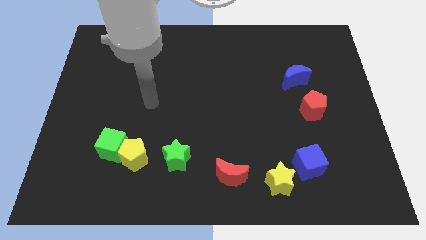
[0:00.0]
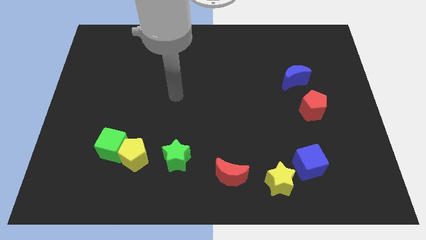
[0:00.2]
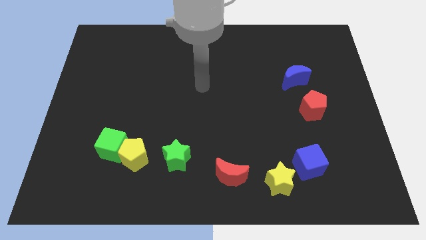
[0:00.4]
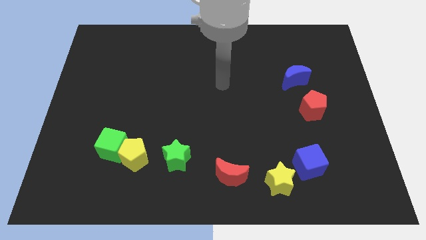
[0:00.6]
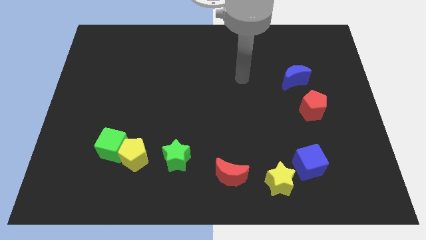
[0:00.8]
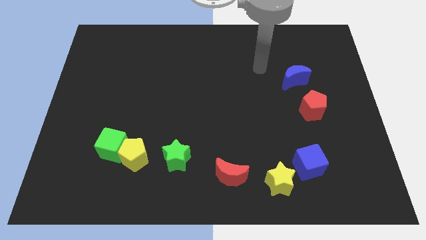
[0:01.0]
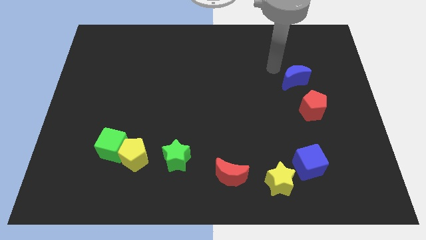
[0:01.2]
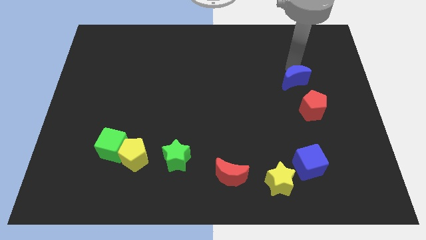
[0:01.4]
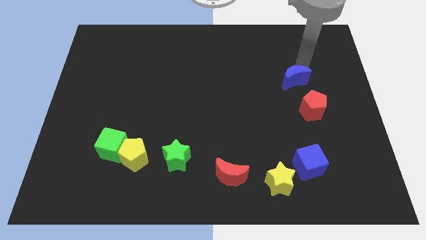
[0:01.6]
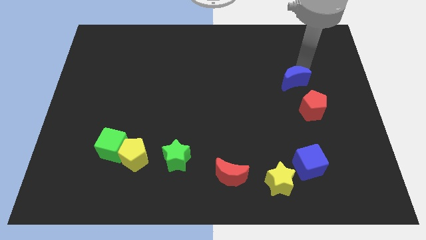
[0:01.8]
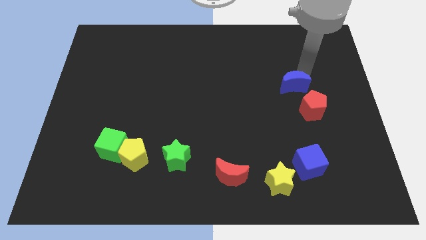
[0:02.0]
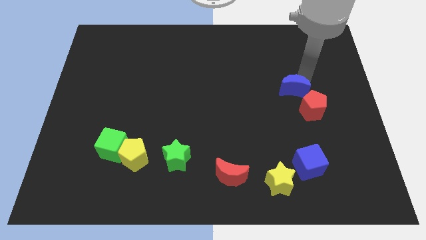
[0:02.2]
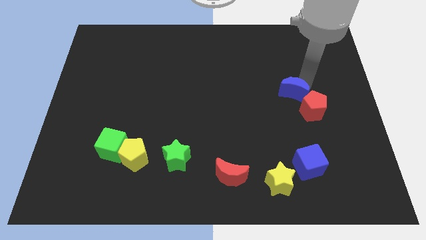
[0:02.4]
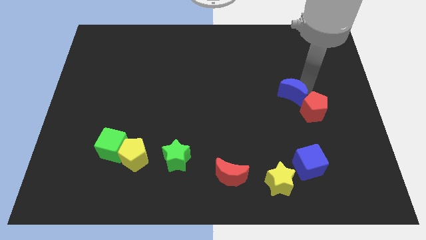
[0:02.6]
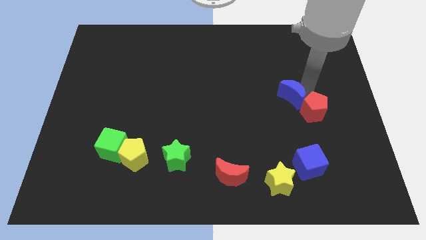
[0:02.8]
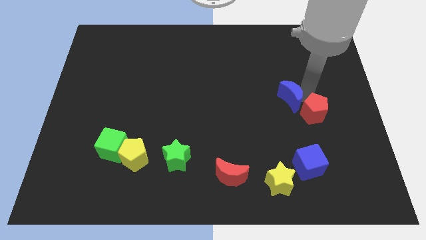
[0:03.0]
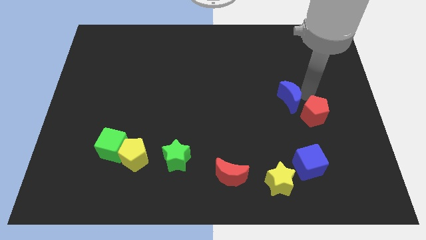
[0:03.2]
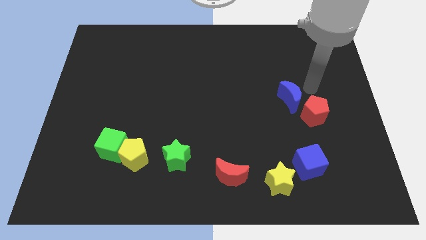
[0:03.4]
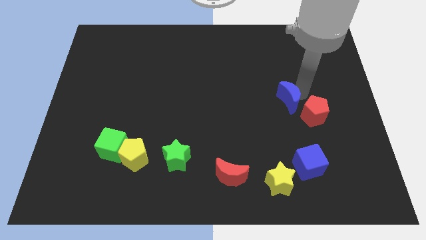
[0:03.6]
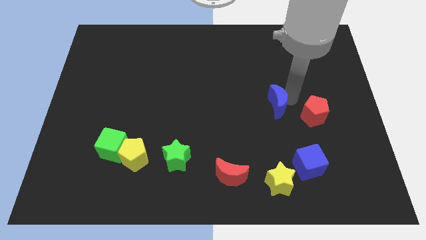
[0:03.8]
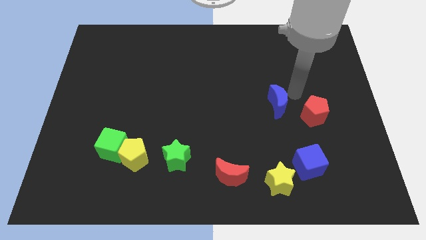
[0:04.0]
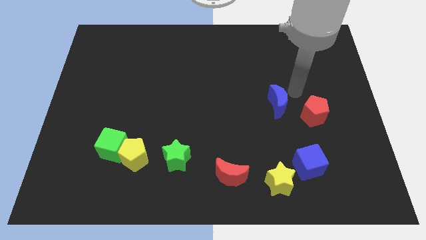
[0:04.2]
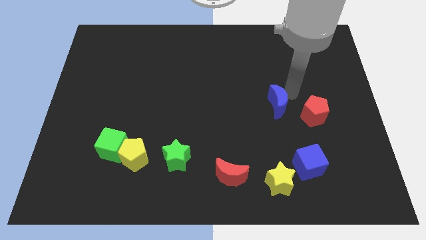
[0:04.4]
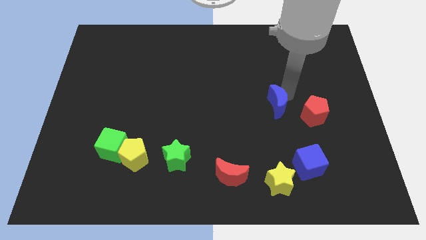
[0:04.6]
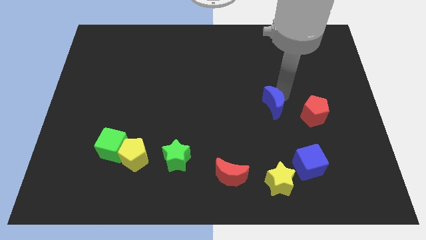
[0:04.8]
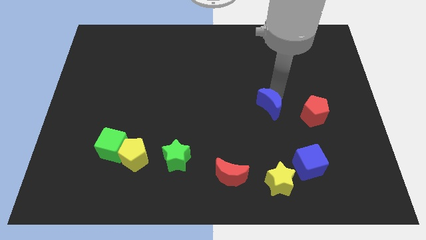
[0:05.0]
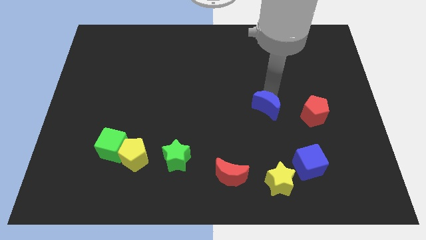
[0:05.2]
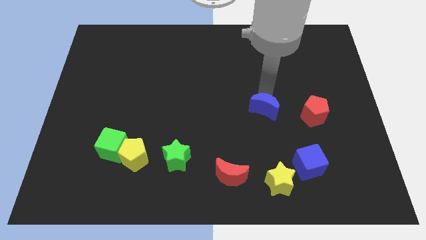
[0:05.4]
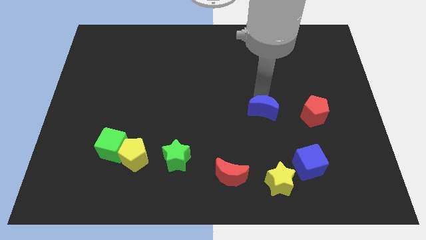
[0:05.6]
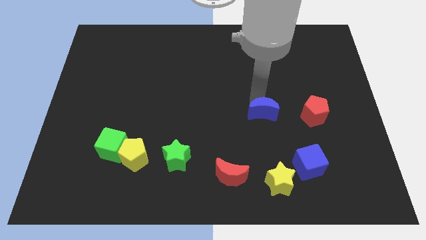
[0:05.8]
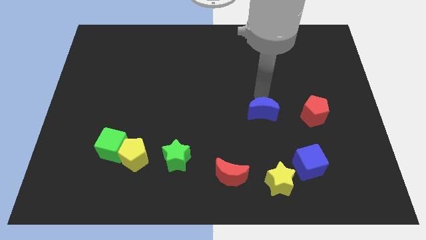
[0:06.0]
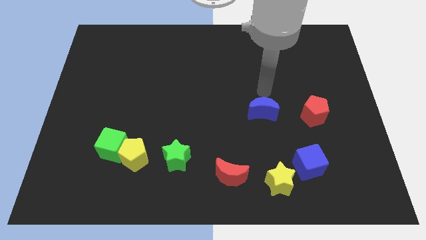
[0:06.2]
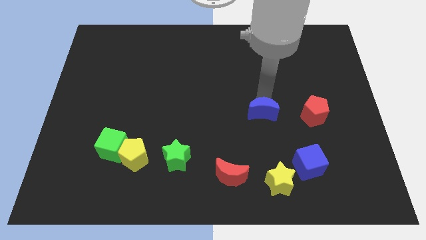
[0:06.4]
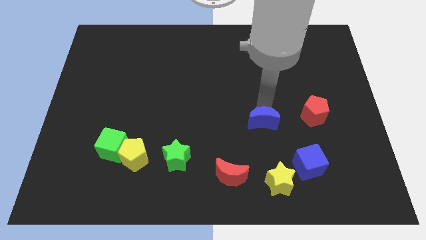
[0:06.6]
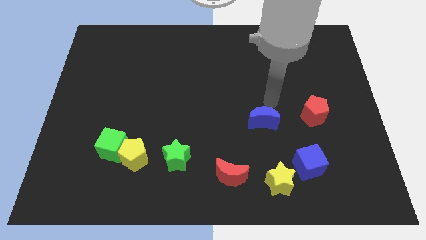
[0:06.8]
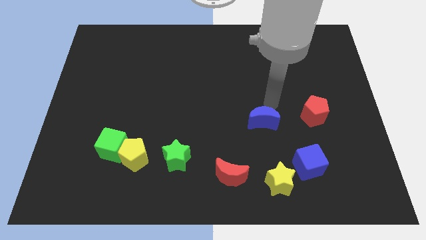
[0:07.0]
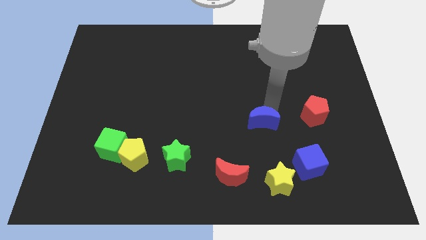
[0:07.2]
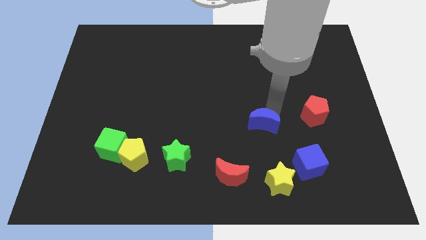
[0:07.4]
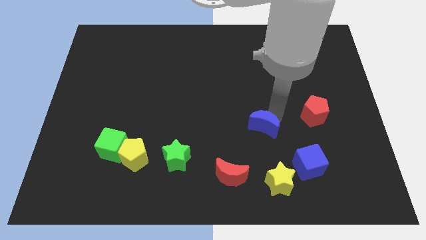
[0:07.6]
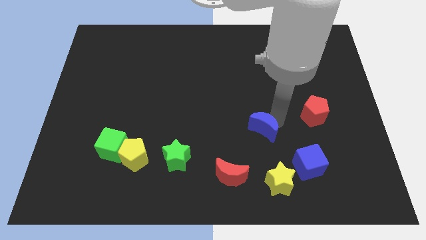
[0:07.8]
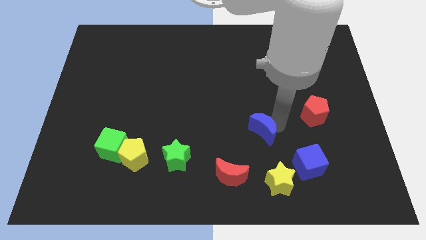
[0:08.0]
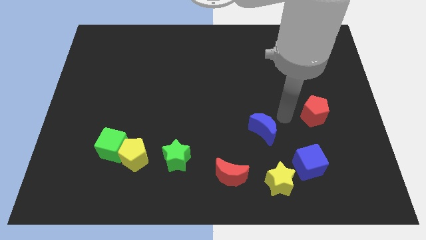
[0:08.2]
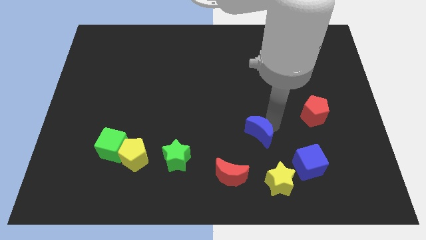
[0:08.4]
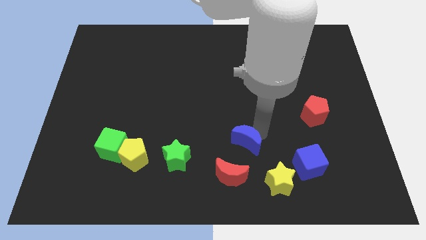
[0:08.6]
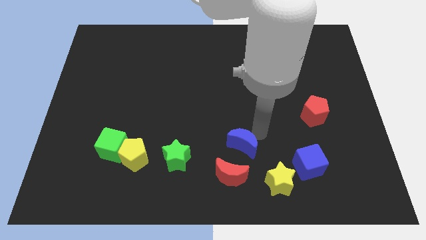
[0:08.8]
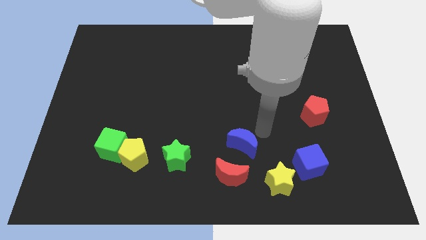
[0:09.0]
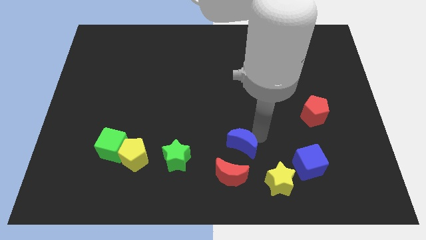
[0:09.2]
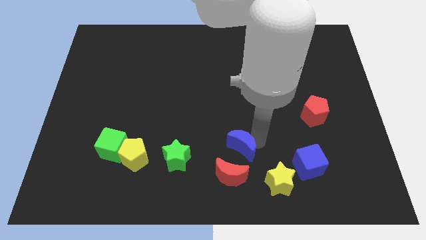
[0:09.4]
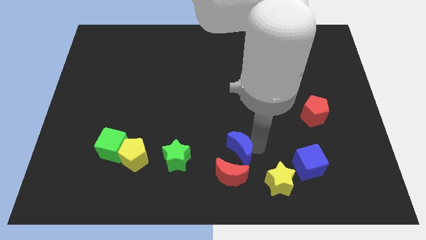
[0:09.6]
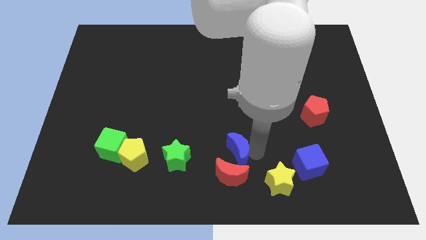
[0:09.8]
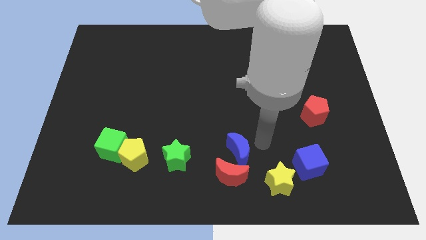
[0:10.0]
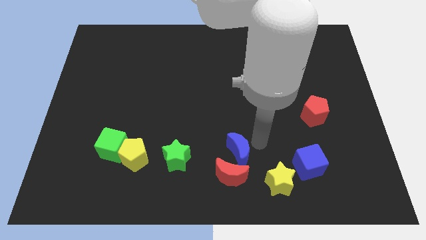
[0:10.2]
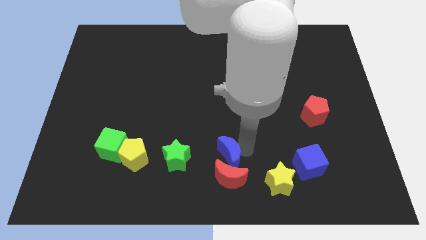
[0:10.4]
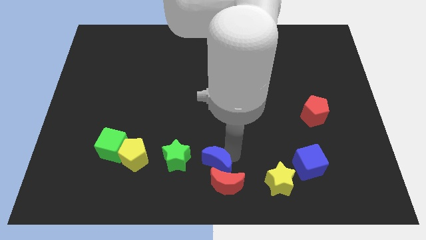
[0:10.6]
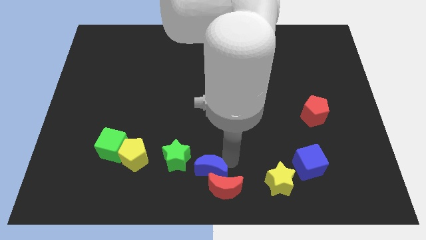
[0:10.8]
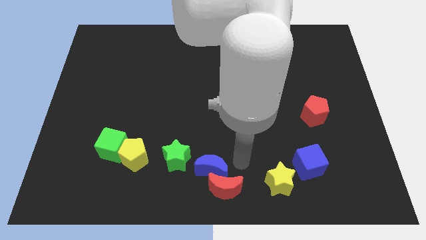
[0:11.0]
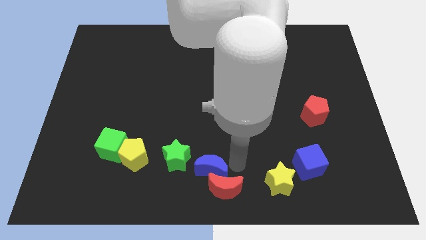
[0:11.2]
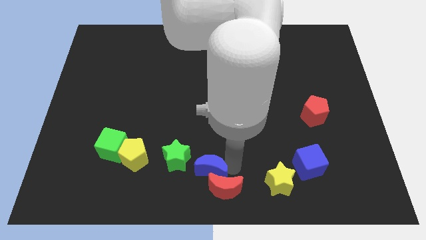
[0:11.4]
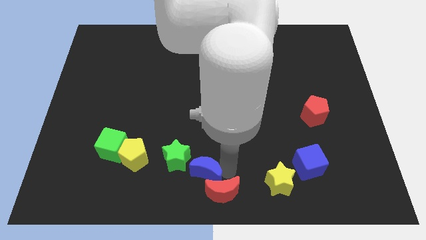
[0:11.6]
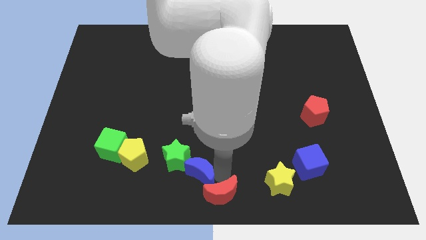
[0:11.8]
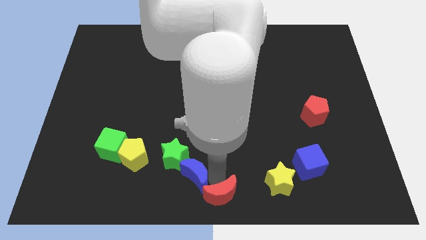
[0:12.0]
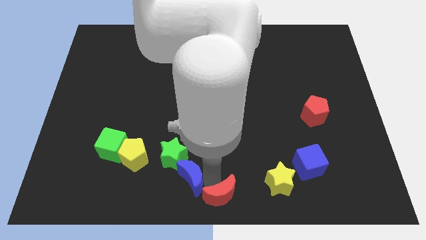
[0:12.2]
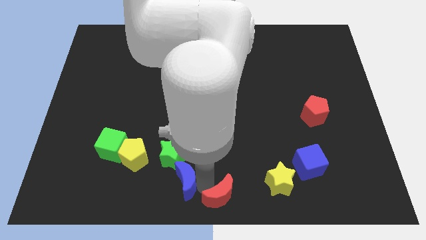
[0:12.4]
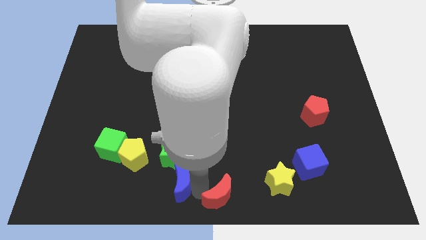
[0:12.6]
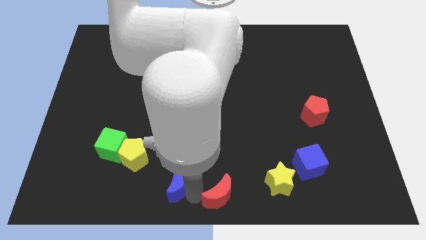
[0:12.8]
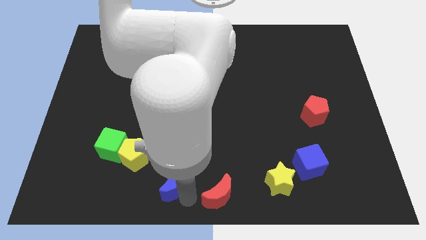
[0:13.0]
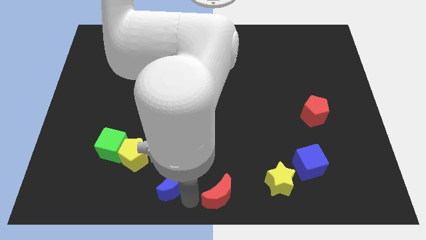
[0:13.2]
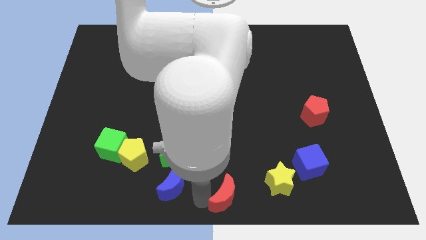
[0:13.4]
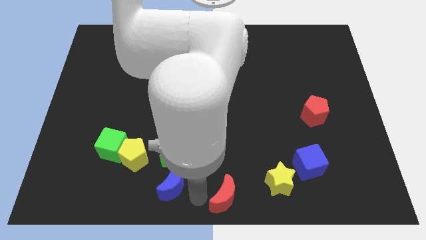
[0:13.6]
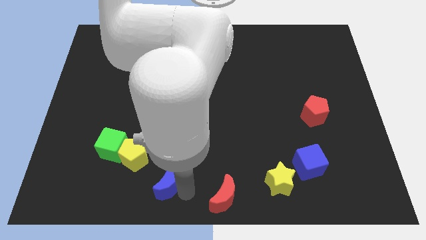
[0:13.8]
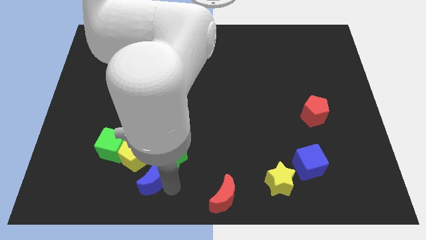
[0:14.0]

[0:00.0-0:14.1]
put the blue moon to the bottom right of the green cube
